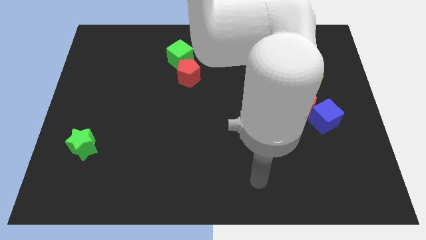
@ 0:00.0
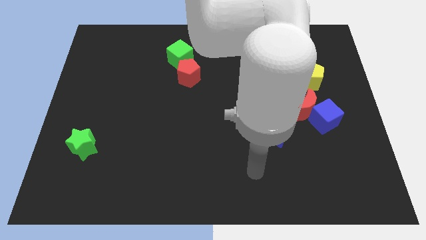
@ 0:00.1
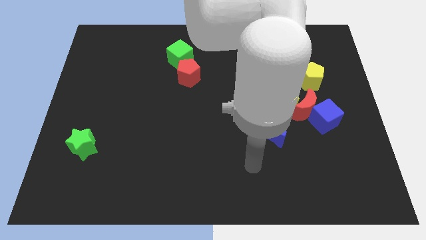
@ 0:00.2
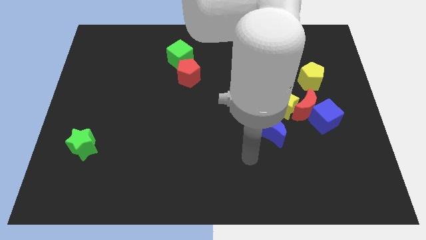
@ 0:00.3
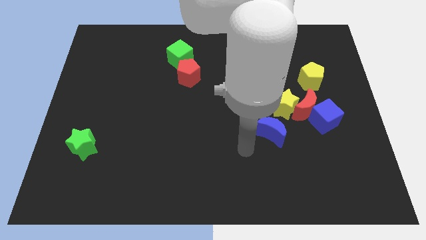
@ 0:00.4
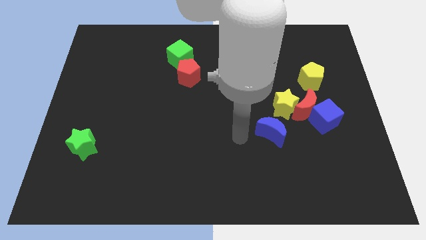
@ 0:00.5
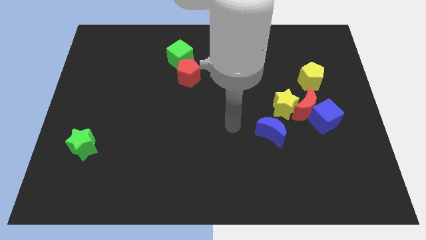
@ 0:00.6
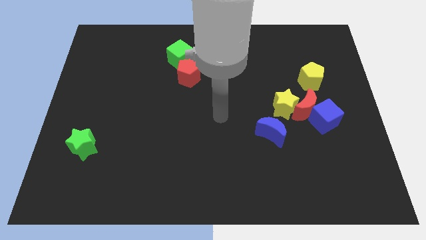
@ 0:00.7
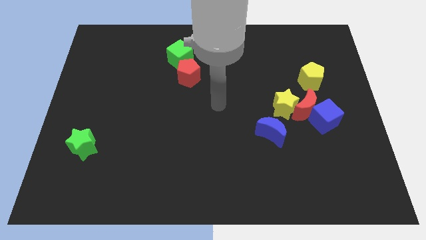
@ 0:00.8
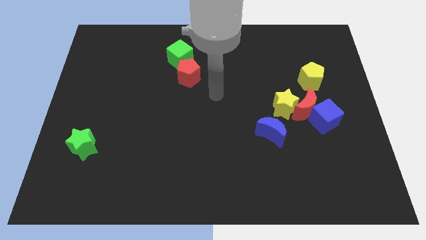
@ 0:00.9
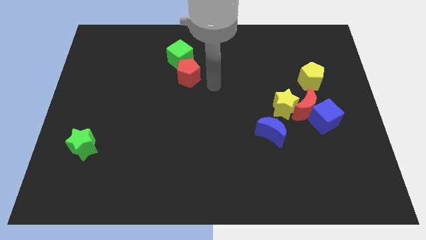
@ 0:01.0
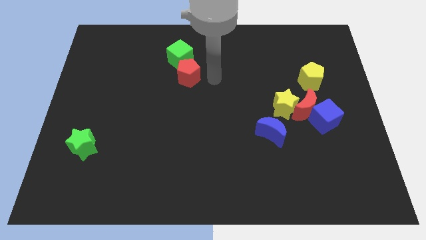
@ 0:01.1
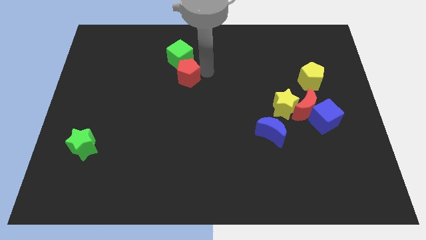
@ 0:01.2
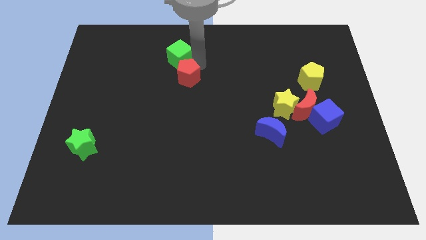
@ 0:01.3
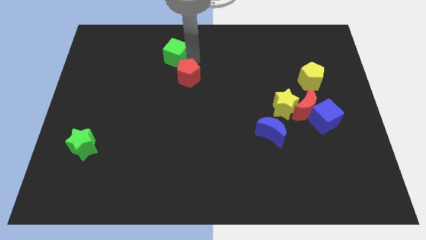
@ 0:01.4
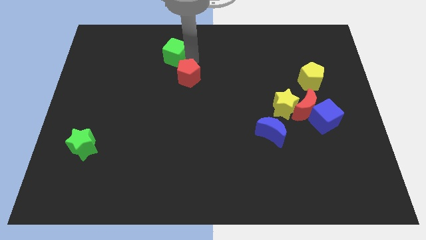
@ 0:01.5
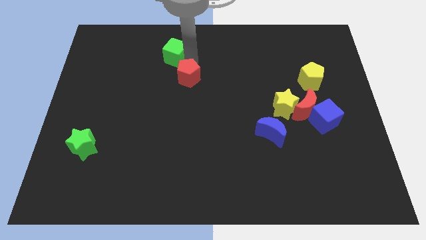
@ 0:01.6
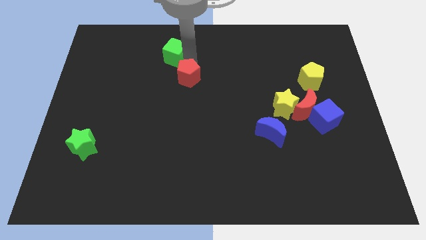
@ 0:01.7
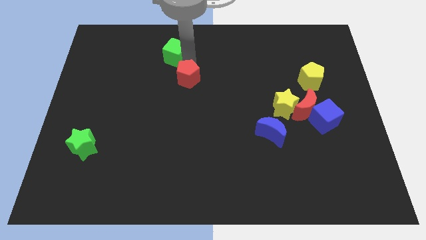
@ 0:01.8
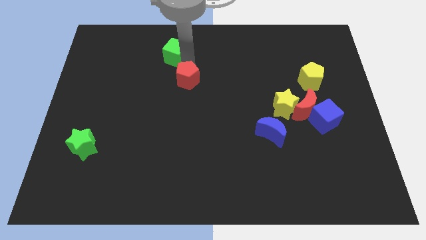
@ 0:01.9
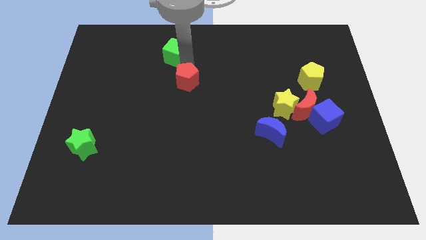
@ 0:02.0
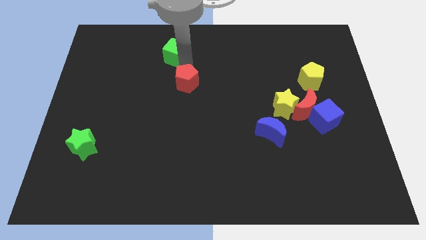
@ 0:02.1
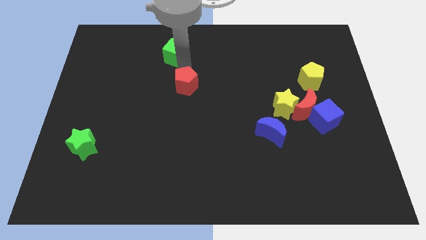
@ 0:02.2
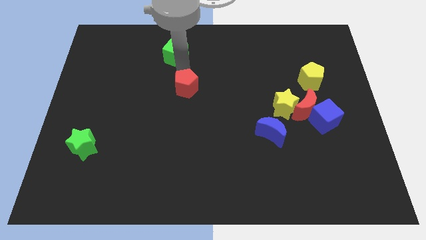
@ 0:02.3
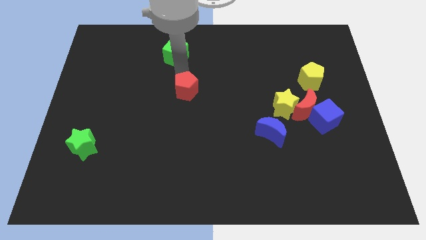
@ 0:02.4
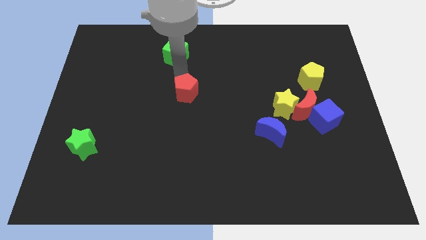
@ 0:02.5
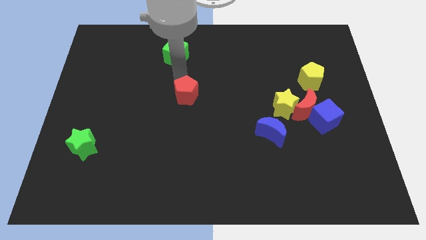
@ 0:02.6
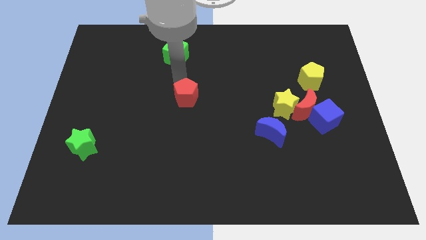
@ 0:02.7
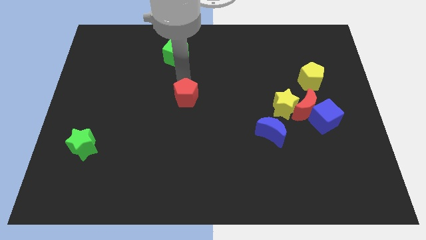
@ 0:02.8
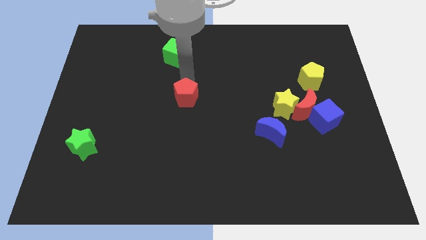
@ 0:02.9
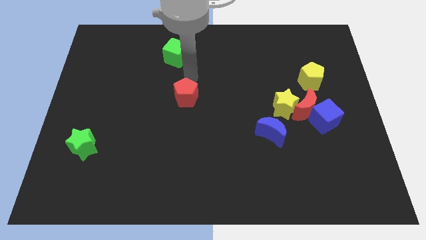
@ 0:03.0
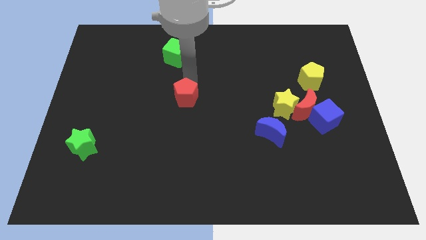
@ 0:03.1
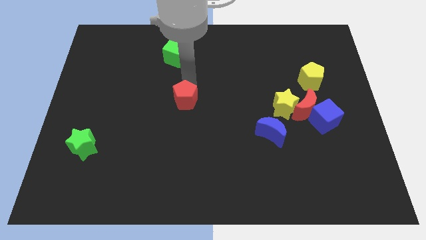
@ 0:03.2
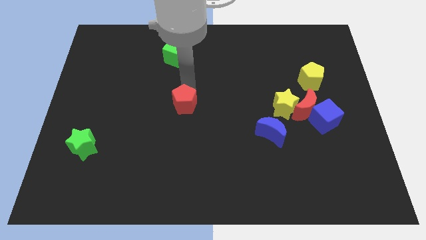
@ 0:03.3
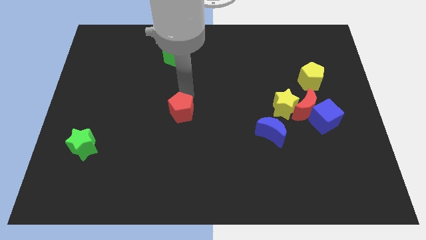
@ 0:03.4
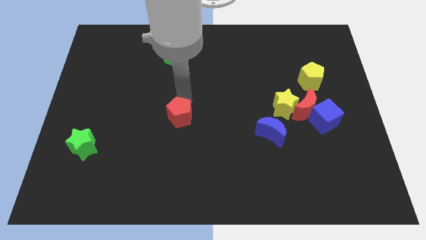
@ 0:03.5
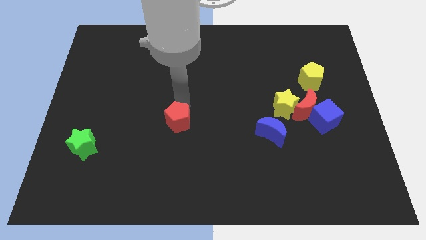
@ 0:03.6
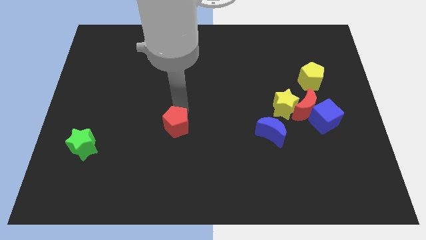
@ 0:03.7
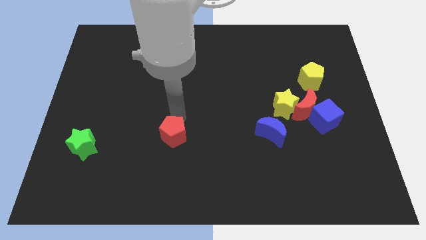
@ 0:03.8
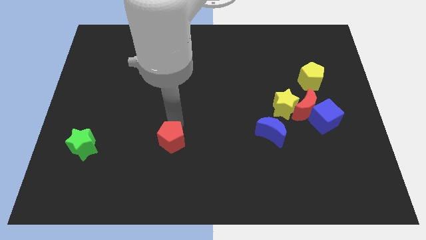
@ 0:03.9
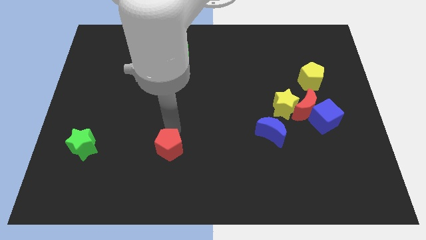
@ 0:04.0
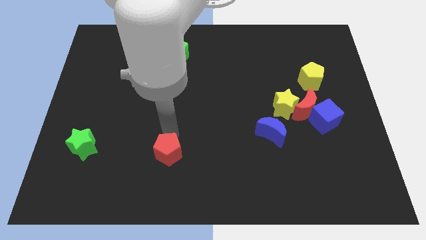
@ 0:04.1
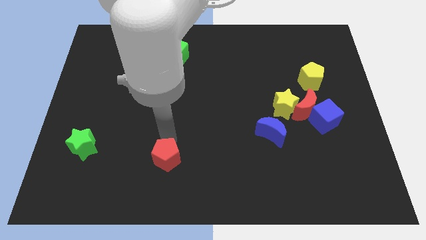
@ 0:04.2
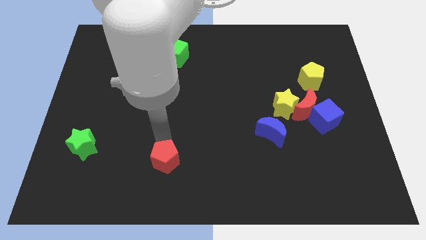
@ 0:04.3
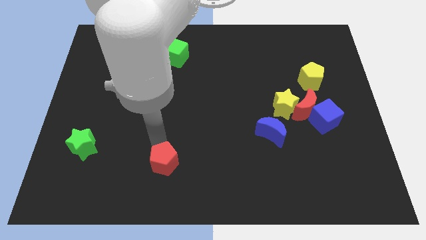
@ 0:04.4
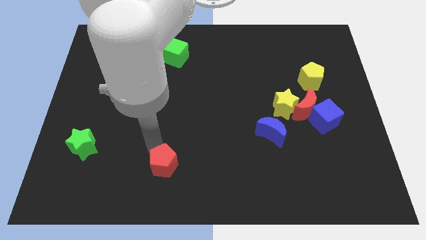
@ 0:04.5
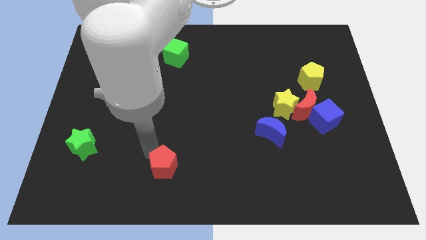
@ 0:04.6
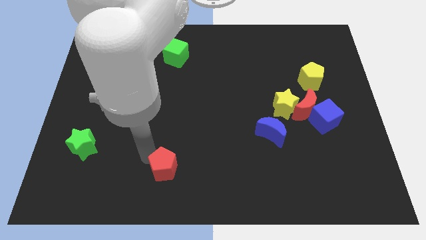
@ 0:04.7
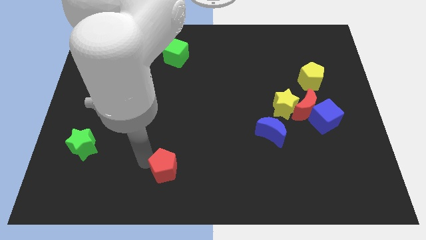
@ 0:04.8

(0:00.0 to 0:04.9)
put the red pentagon to the bottom

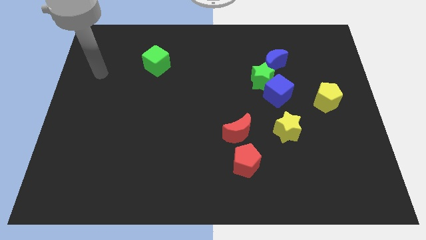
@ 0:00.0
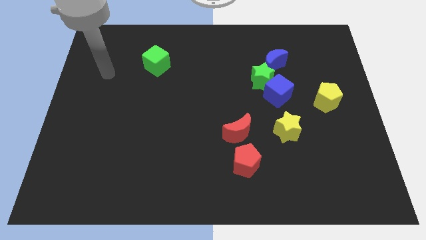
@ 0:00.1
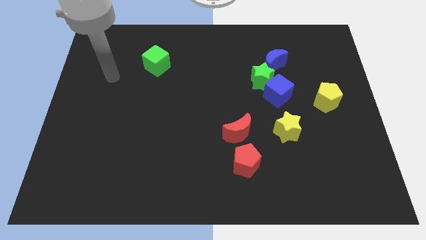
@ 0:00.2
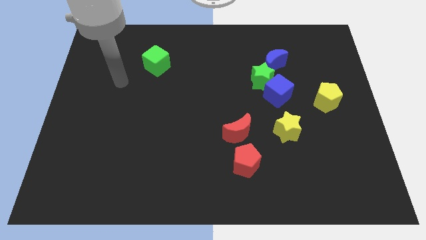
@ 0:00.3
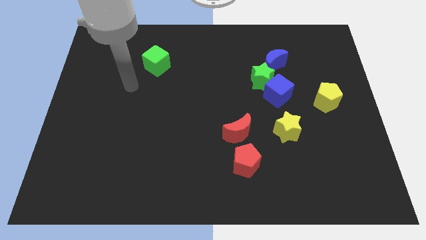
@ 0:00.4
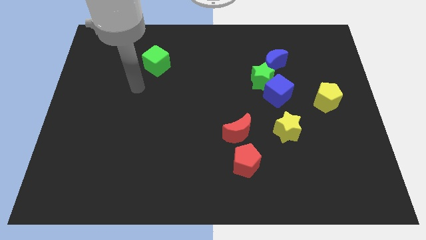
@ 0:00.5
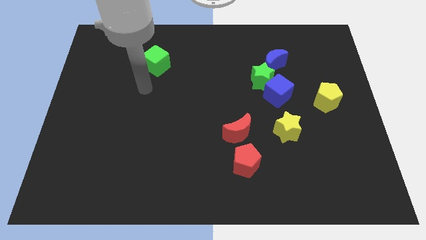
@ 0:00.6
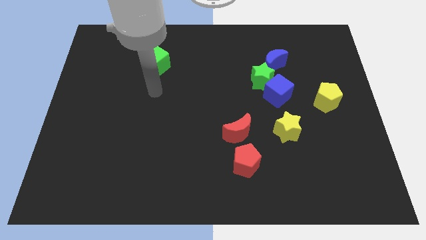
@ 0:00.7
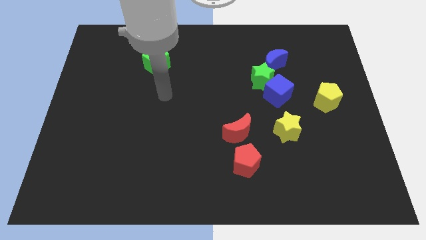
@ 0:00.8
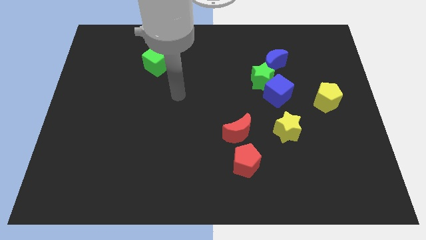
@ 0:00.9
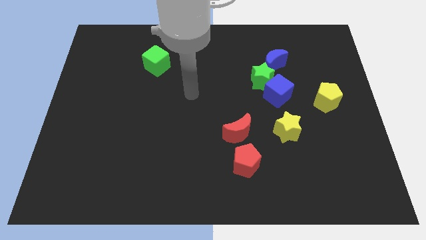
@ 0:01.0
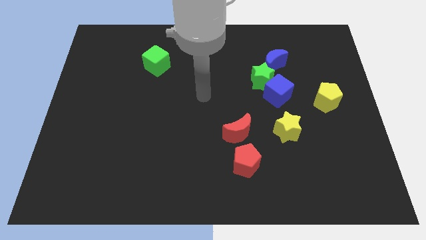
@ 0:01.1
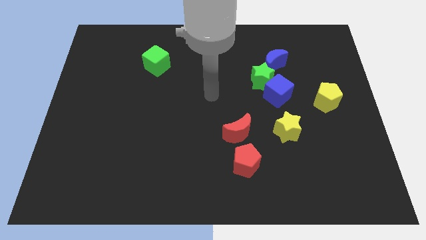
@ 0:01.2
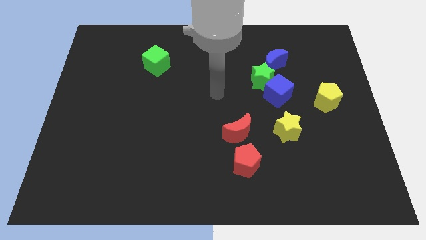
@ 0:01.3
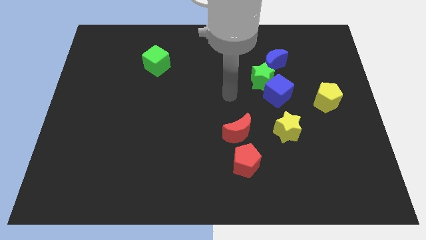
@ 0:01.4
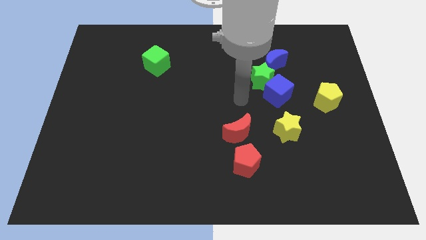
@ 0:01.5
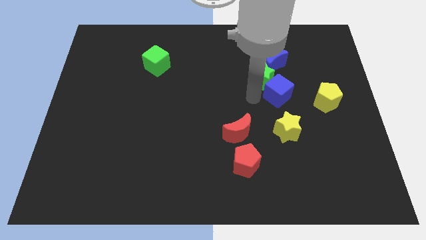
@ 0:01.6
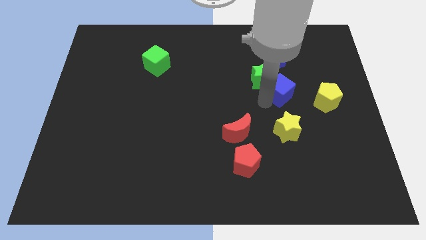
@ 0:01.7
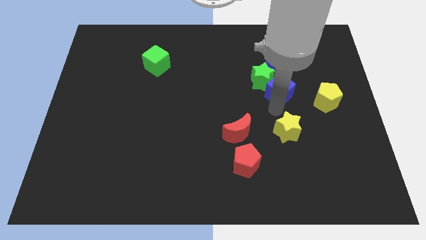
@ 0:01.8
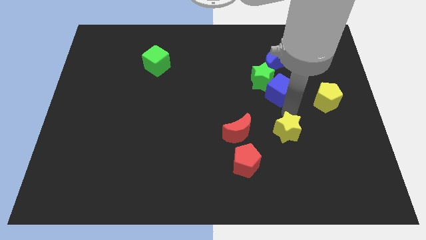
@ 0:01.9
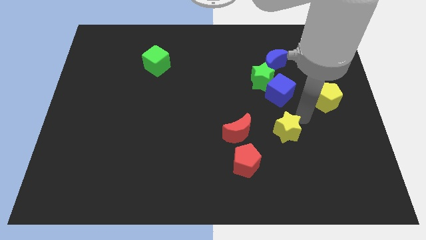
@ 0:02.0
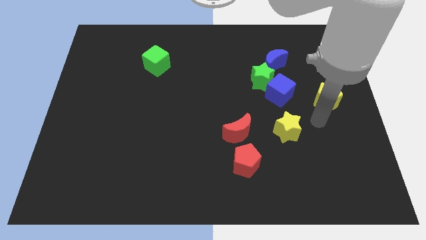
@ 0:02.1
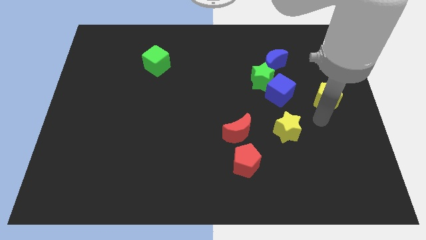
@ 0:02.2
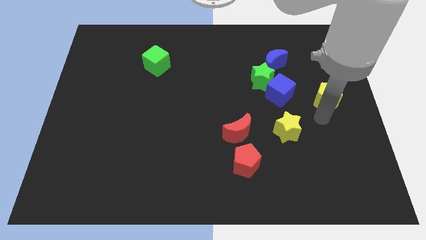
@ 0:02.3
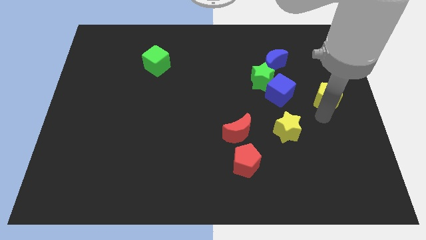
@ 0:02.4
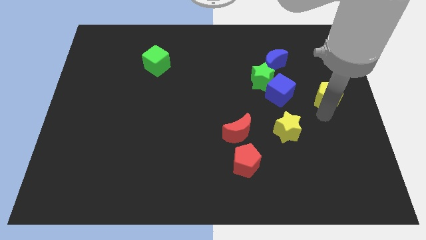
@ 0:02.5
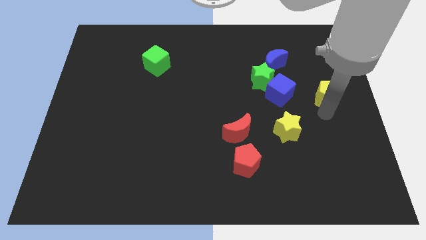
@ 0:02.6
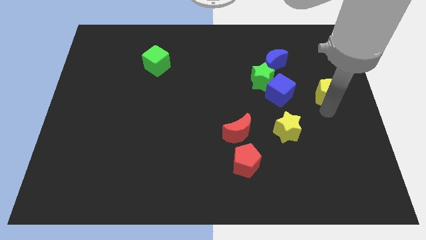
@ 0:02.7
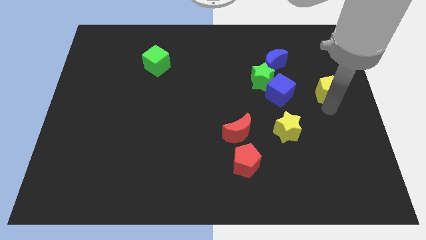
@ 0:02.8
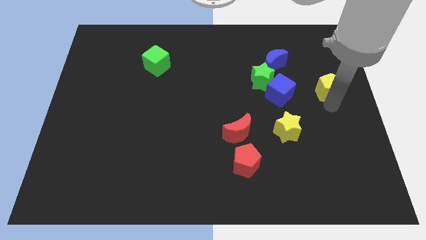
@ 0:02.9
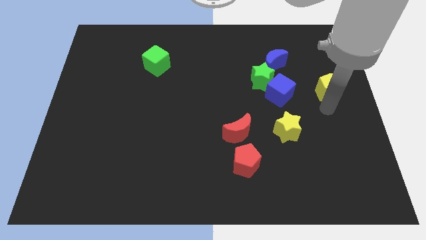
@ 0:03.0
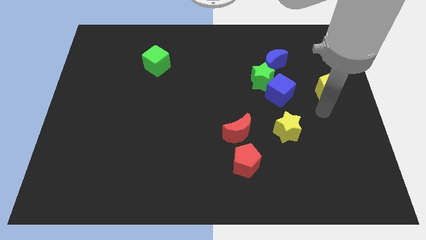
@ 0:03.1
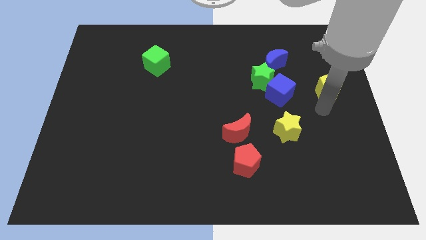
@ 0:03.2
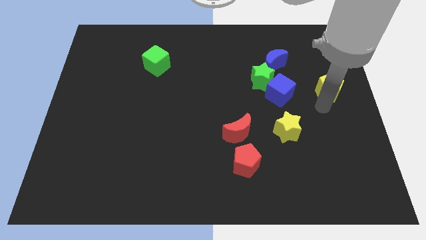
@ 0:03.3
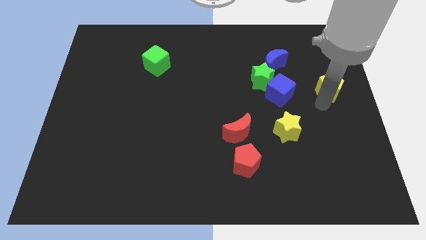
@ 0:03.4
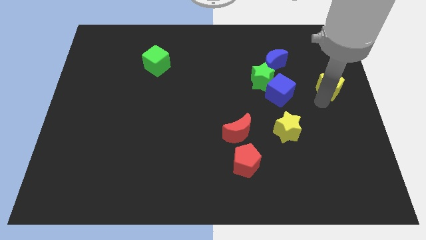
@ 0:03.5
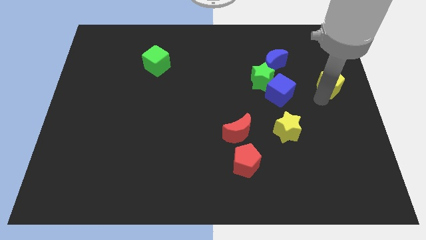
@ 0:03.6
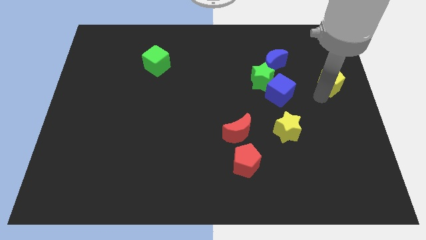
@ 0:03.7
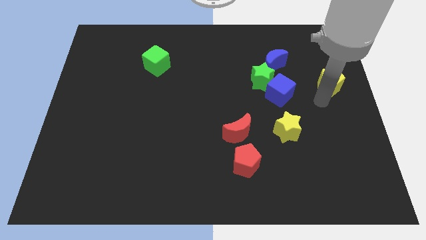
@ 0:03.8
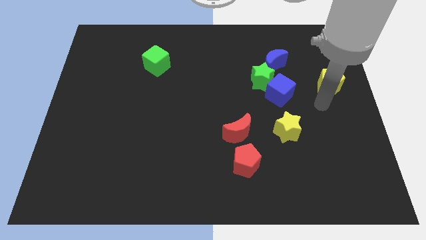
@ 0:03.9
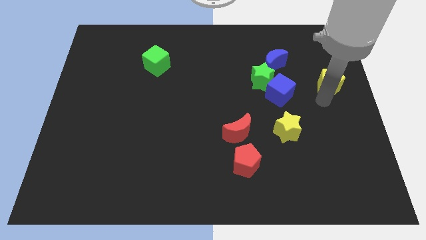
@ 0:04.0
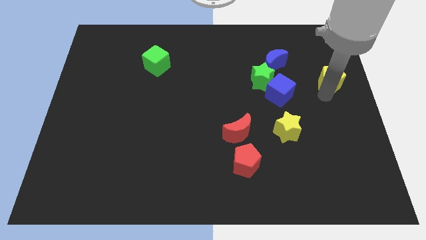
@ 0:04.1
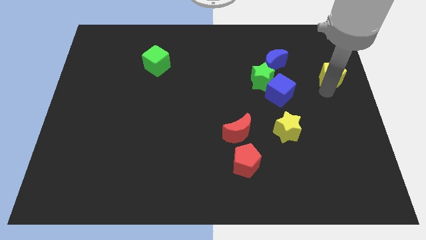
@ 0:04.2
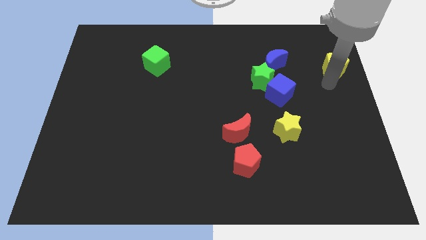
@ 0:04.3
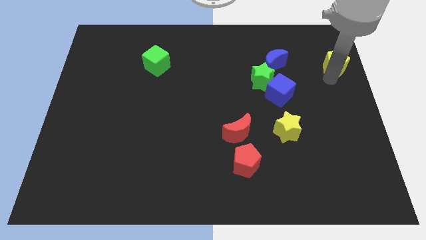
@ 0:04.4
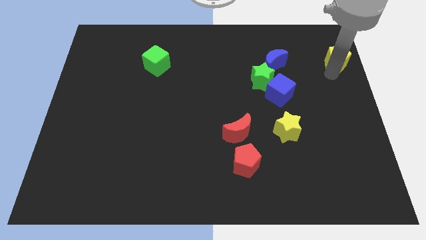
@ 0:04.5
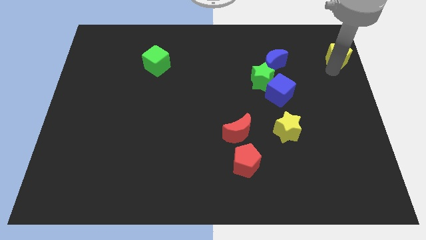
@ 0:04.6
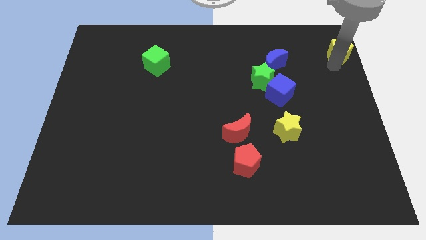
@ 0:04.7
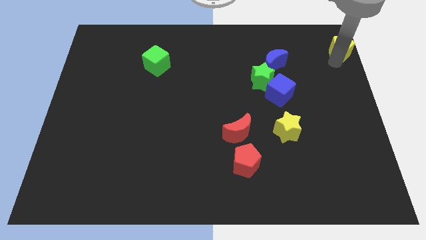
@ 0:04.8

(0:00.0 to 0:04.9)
put the yellow pentagon to the top right corner
